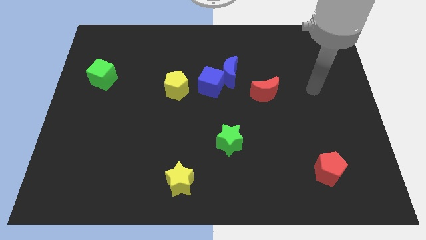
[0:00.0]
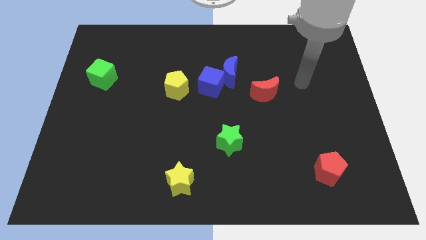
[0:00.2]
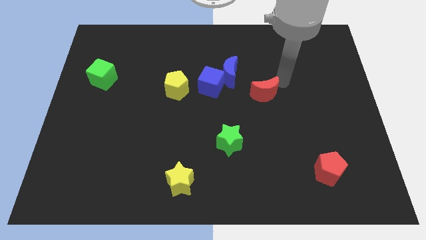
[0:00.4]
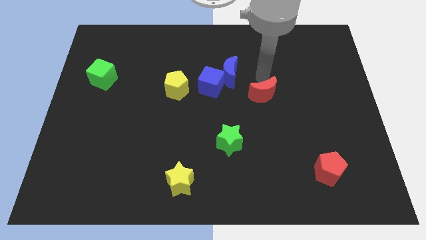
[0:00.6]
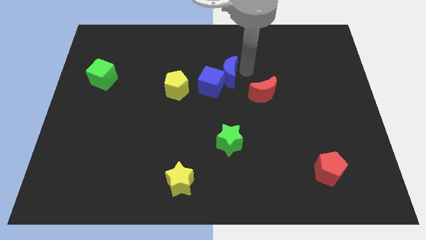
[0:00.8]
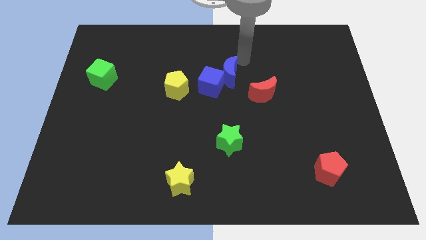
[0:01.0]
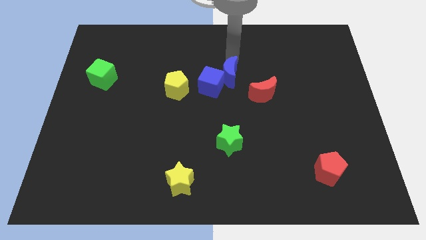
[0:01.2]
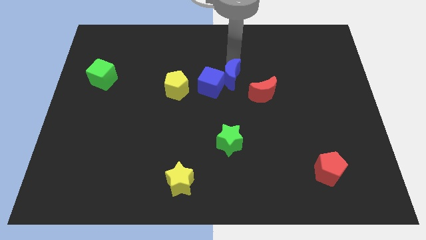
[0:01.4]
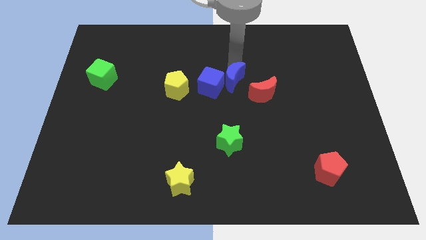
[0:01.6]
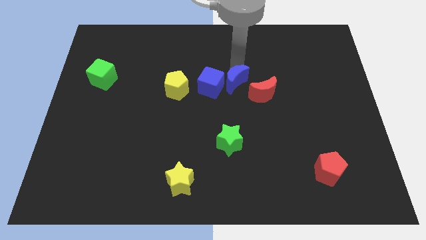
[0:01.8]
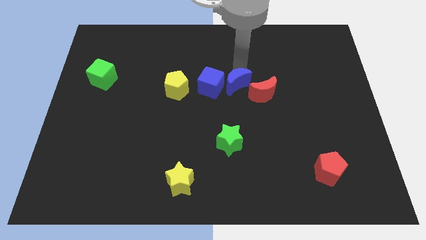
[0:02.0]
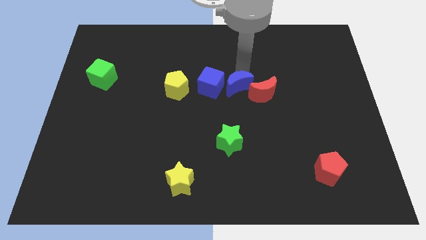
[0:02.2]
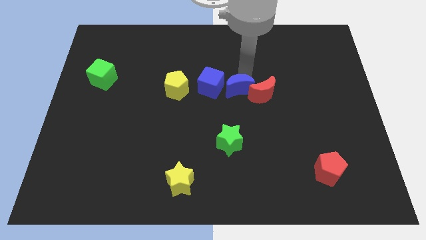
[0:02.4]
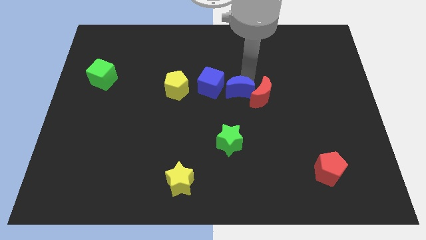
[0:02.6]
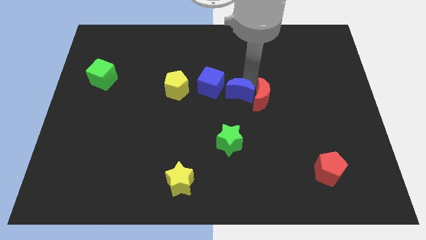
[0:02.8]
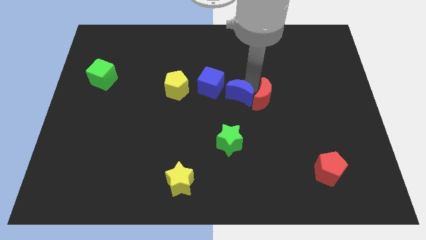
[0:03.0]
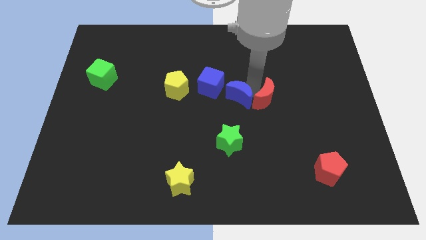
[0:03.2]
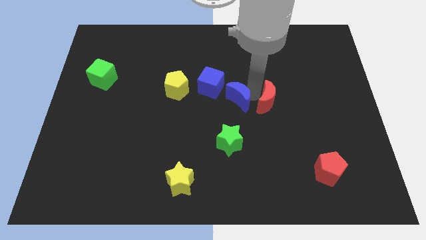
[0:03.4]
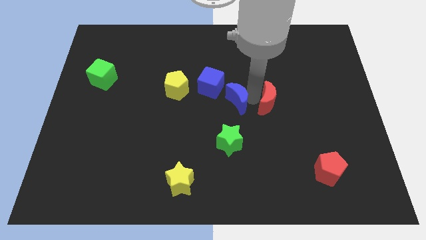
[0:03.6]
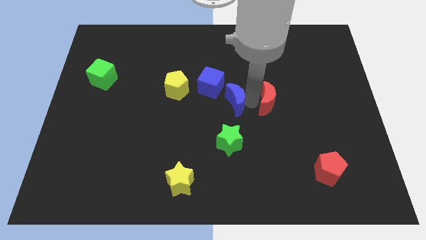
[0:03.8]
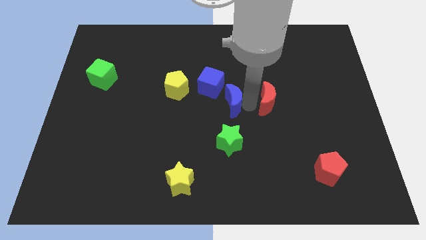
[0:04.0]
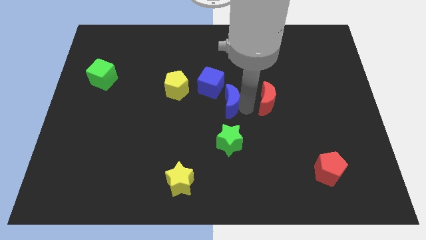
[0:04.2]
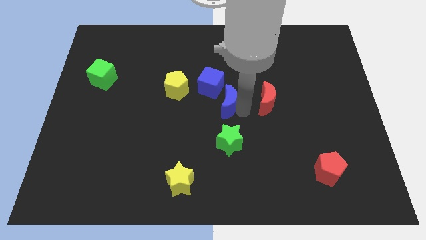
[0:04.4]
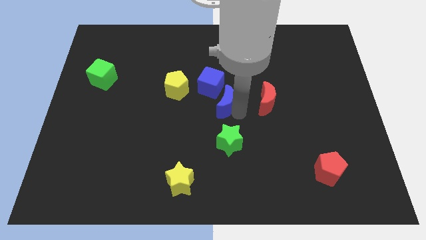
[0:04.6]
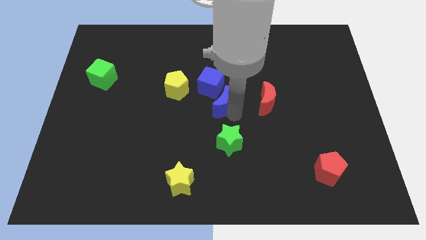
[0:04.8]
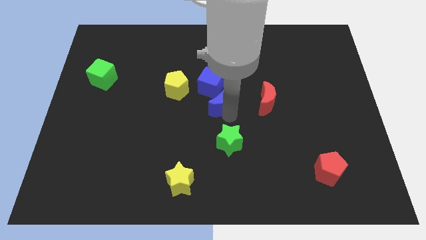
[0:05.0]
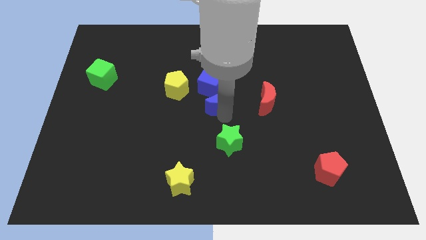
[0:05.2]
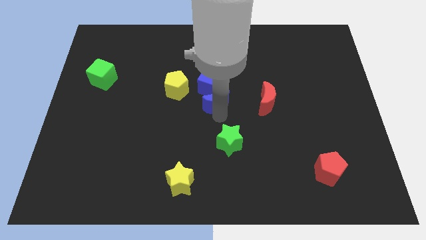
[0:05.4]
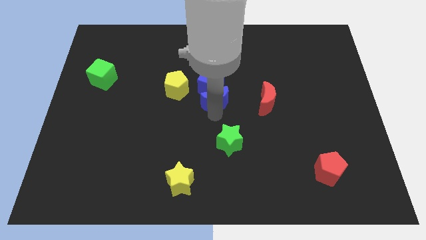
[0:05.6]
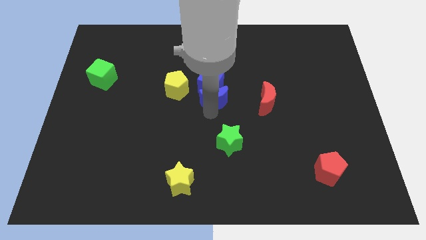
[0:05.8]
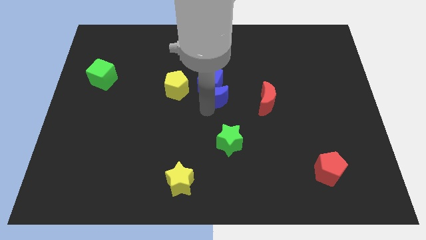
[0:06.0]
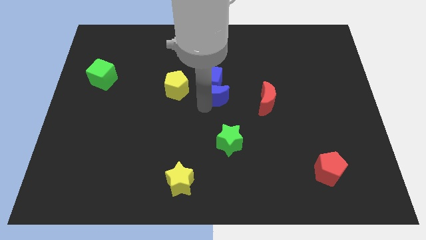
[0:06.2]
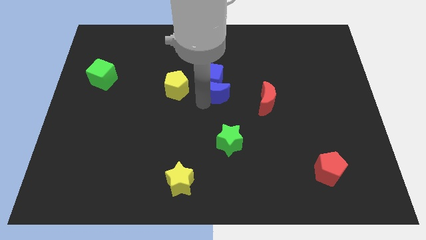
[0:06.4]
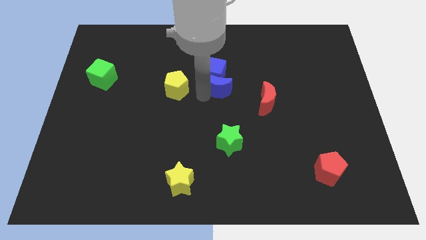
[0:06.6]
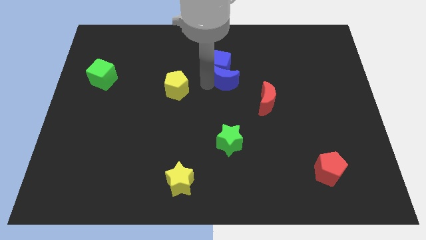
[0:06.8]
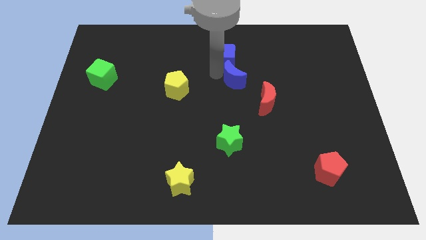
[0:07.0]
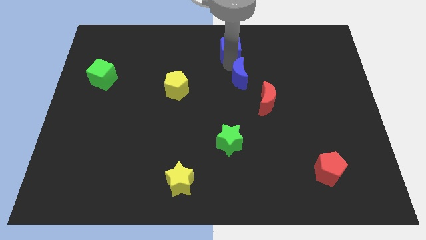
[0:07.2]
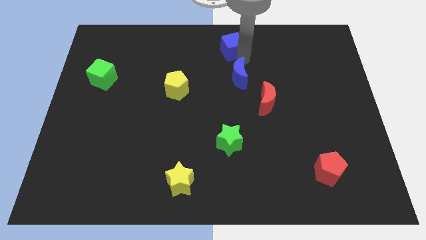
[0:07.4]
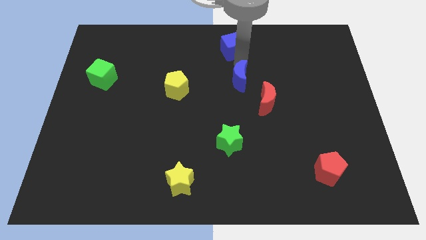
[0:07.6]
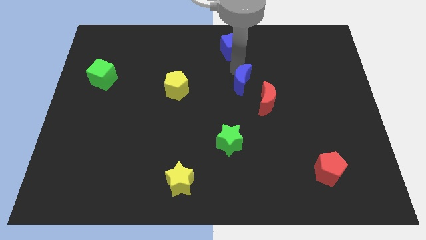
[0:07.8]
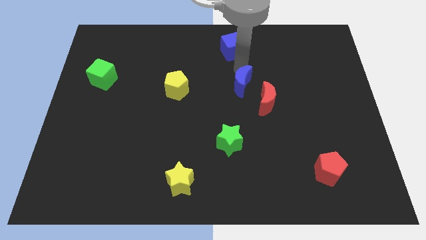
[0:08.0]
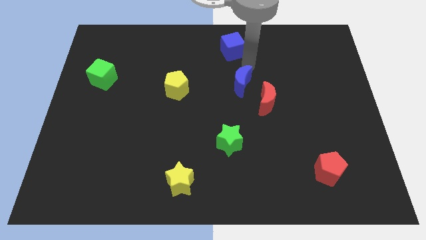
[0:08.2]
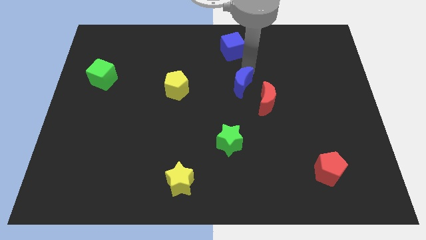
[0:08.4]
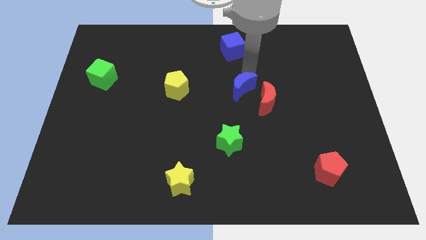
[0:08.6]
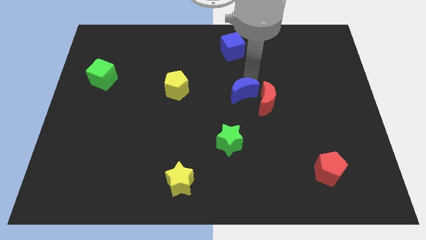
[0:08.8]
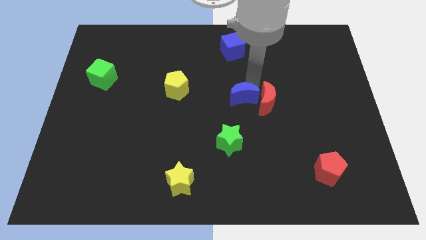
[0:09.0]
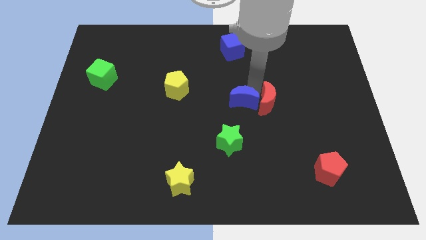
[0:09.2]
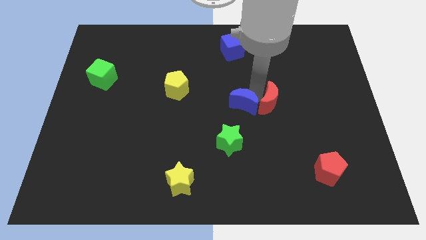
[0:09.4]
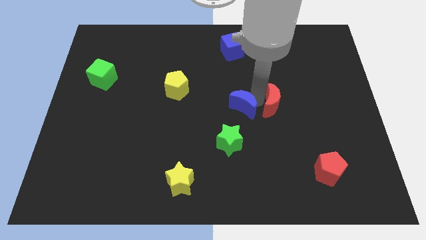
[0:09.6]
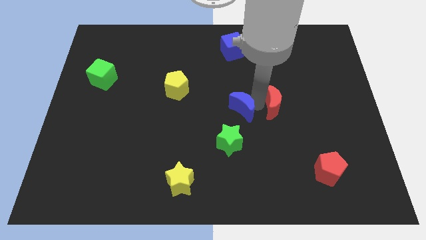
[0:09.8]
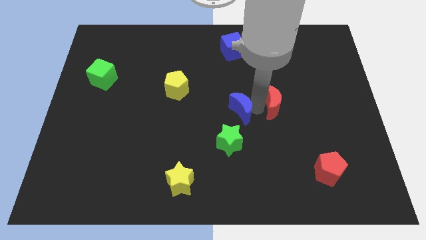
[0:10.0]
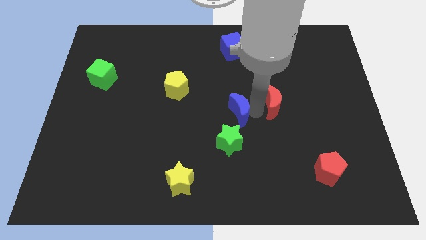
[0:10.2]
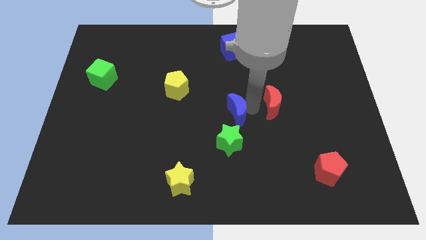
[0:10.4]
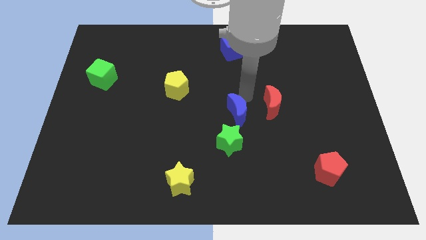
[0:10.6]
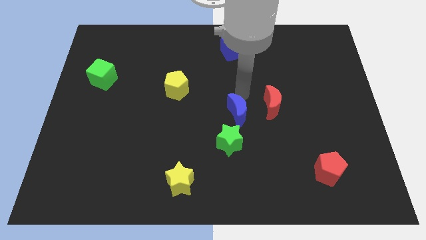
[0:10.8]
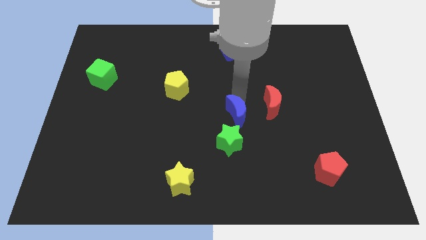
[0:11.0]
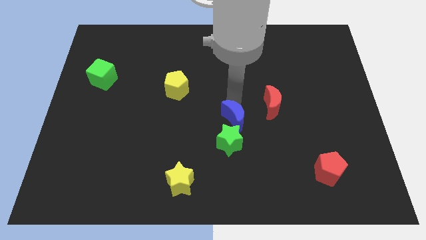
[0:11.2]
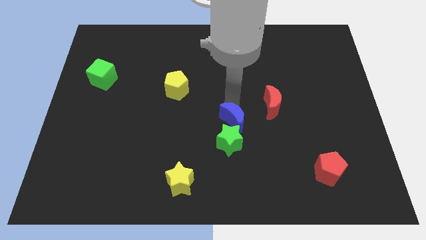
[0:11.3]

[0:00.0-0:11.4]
slide the blue moon next to the green star

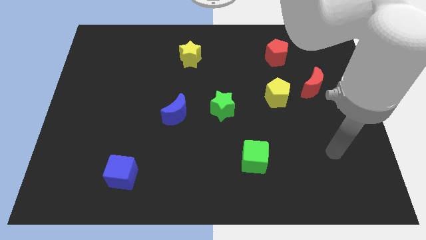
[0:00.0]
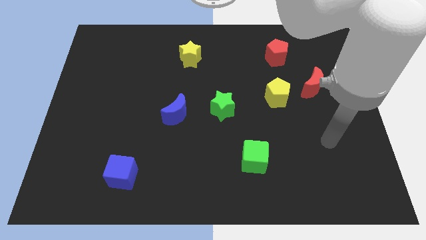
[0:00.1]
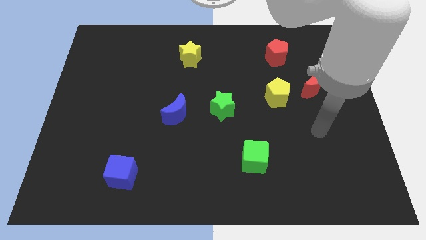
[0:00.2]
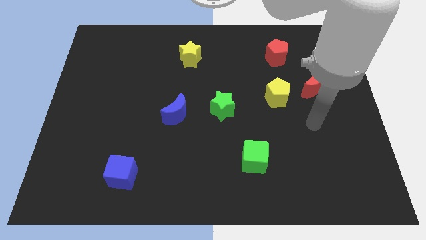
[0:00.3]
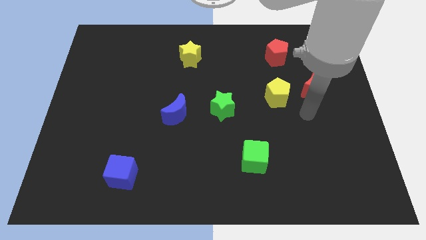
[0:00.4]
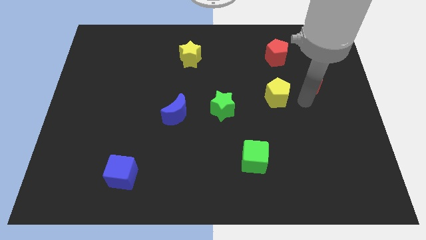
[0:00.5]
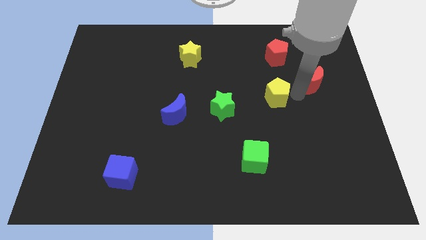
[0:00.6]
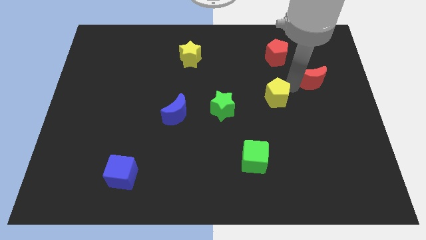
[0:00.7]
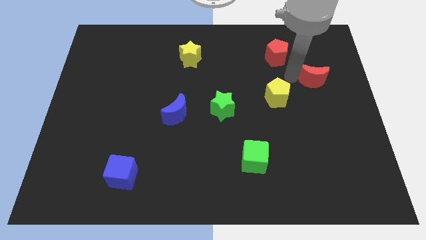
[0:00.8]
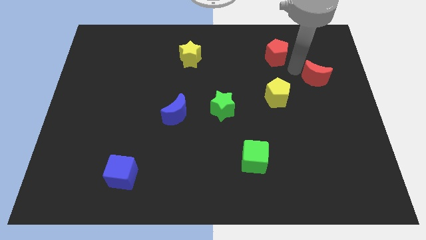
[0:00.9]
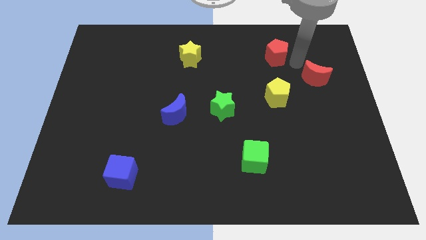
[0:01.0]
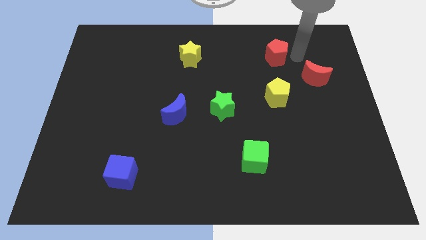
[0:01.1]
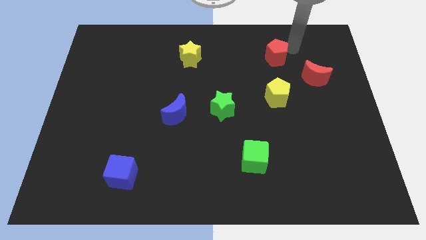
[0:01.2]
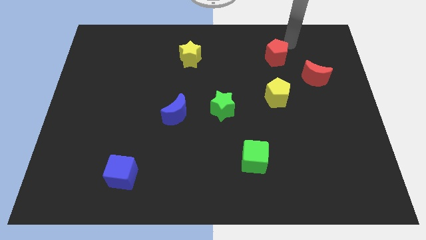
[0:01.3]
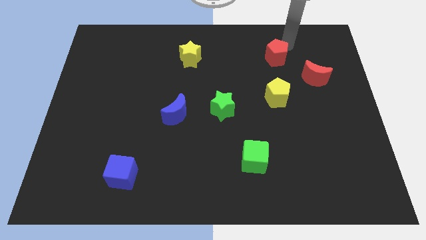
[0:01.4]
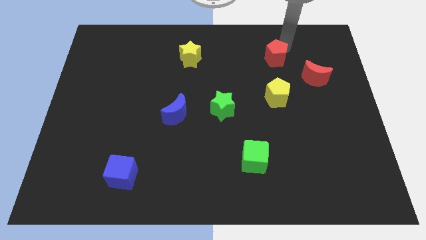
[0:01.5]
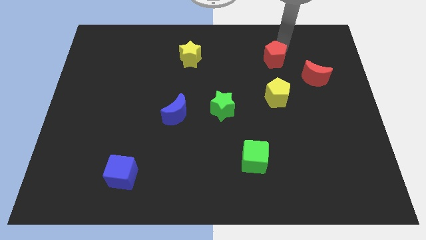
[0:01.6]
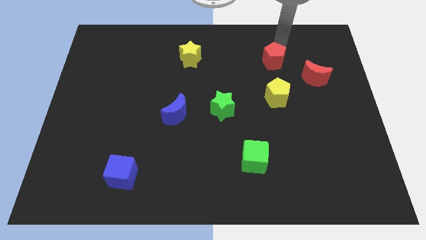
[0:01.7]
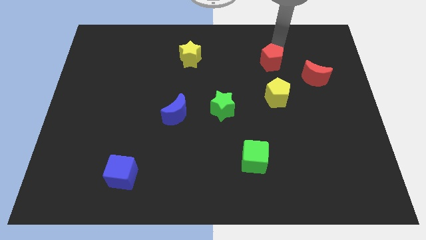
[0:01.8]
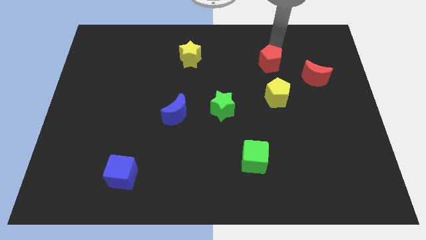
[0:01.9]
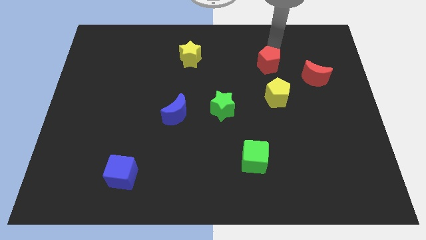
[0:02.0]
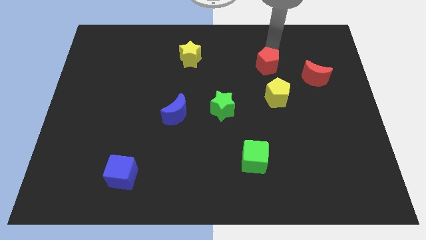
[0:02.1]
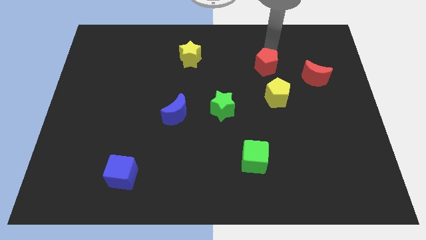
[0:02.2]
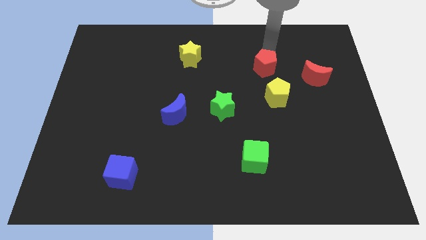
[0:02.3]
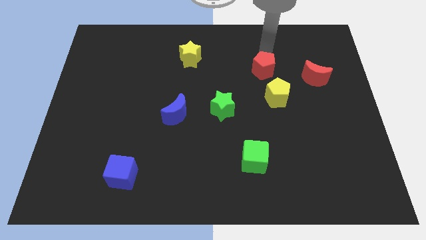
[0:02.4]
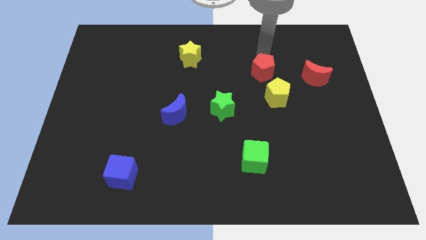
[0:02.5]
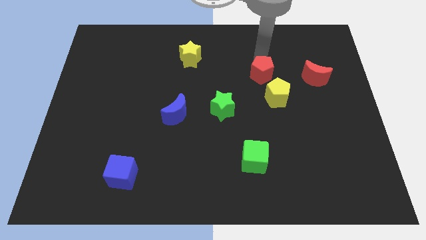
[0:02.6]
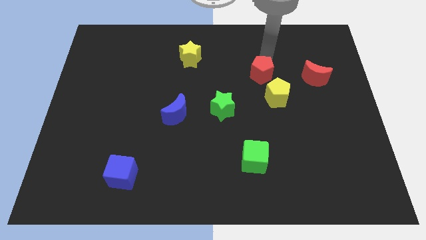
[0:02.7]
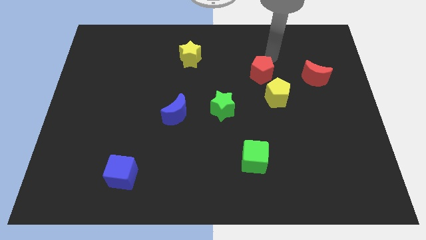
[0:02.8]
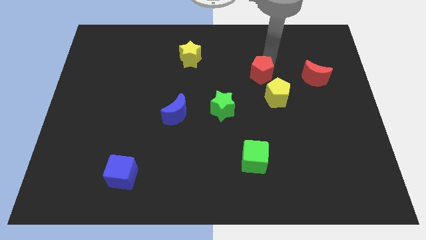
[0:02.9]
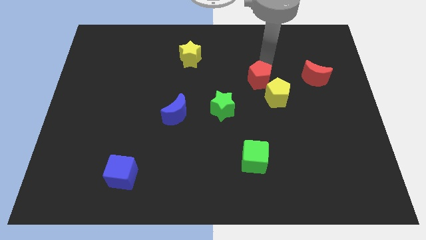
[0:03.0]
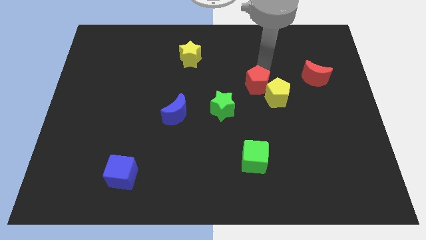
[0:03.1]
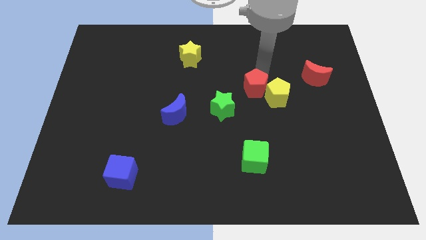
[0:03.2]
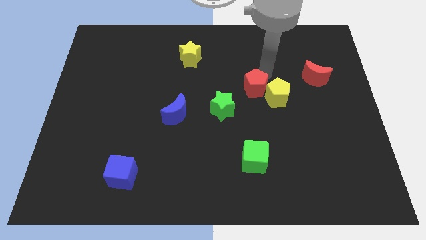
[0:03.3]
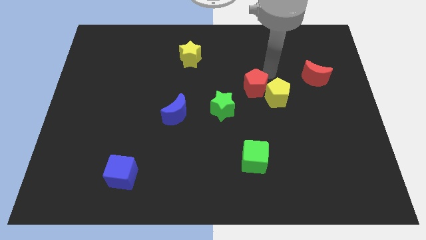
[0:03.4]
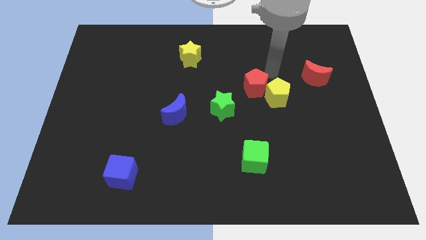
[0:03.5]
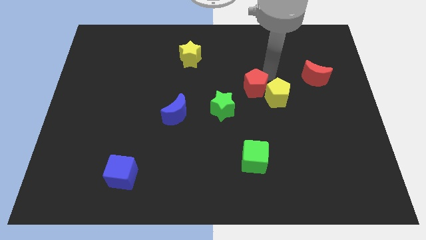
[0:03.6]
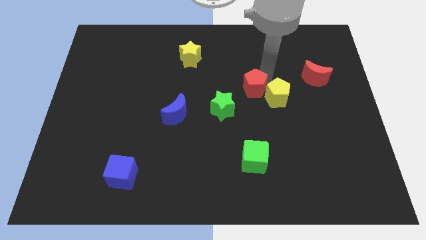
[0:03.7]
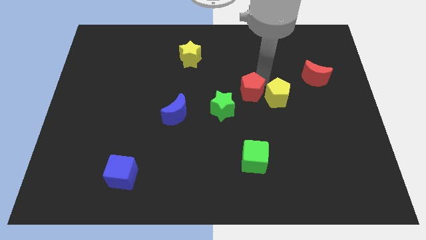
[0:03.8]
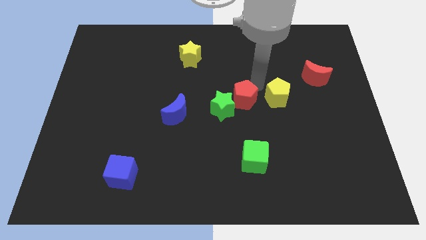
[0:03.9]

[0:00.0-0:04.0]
move the red pentagon next to the green star
